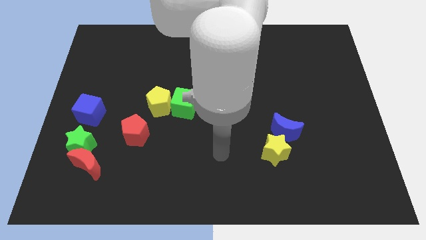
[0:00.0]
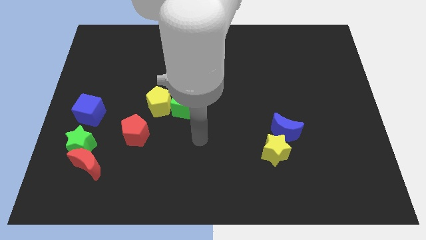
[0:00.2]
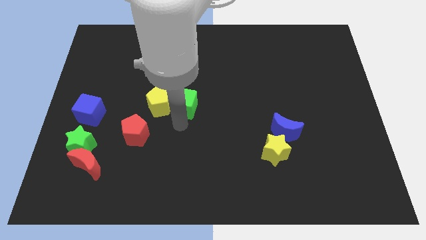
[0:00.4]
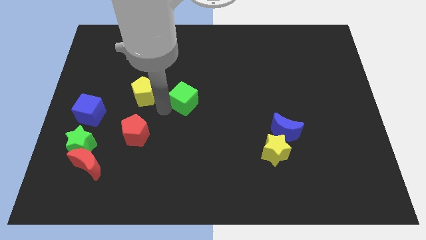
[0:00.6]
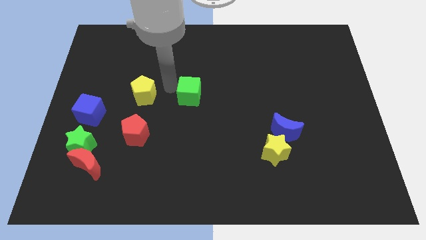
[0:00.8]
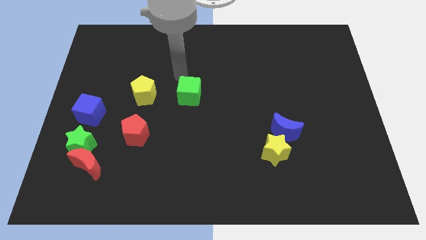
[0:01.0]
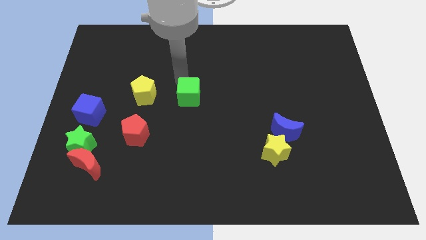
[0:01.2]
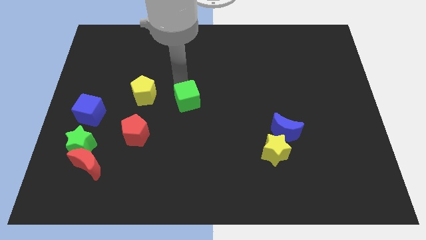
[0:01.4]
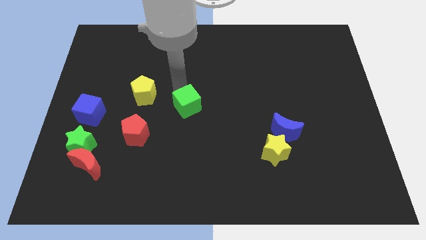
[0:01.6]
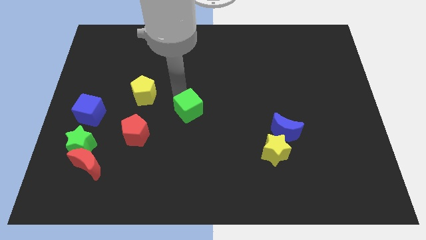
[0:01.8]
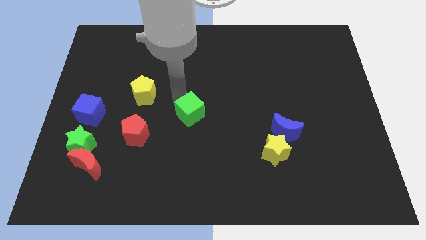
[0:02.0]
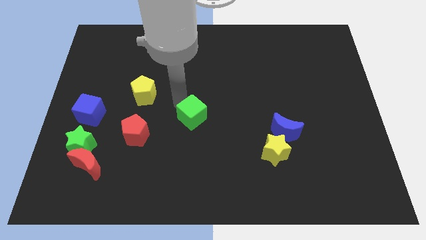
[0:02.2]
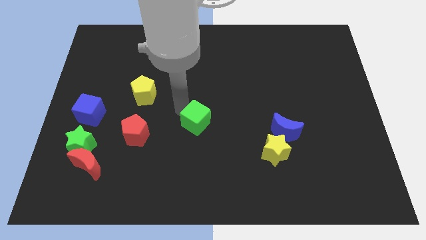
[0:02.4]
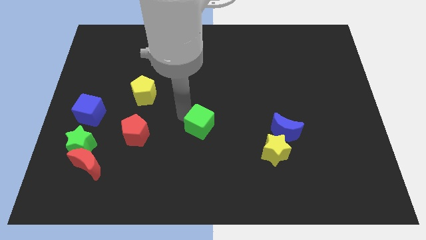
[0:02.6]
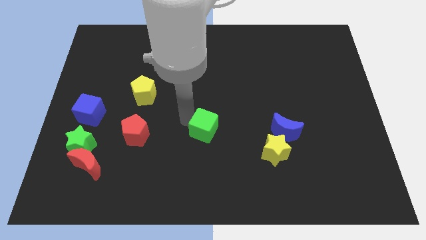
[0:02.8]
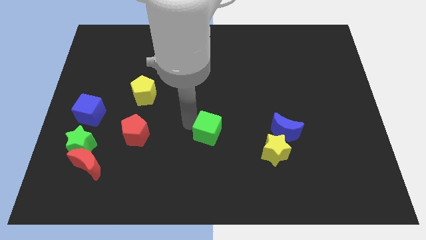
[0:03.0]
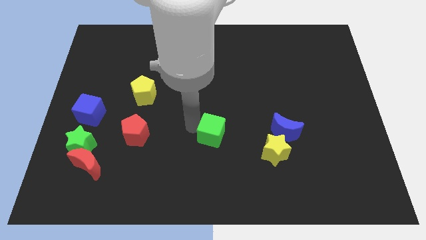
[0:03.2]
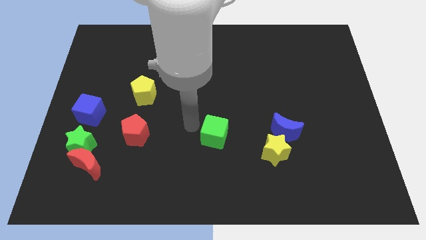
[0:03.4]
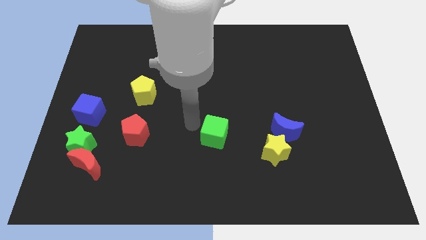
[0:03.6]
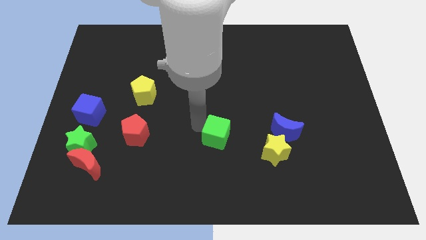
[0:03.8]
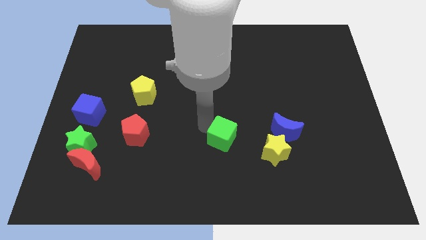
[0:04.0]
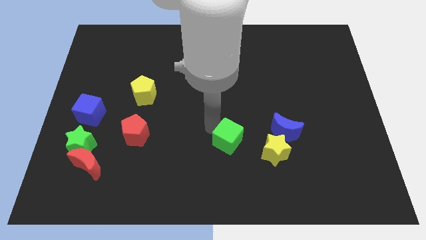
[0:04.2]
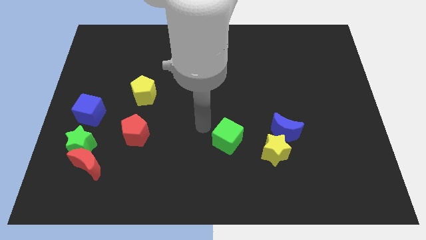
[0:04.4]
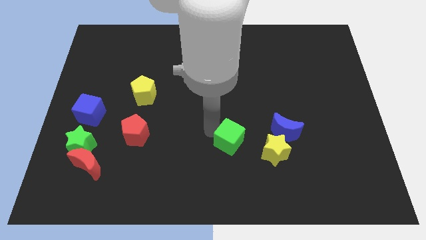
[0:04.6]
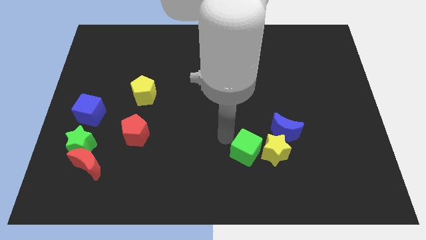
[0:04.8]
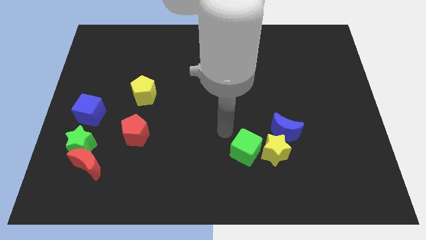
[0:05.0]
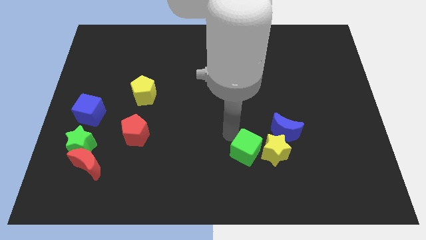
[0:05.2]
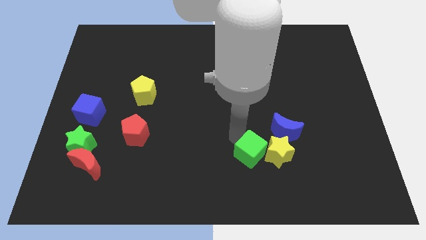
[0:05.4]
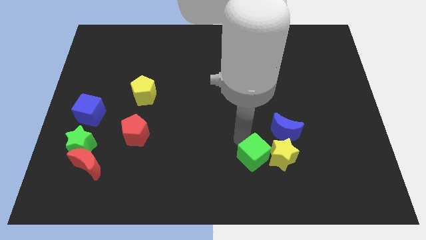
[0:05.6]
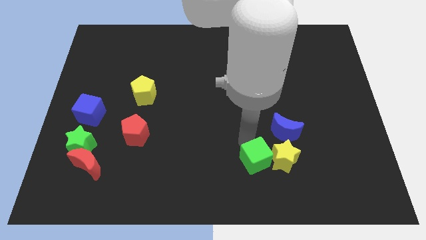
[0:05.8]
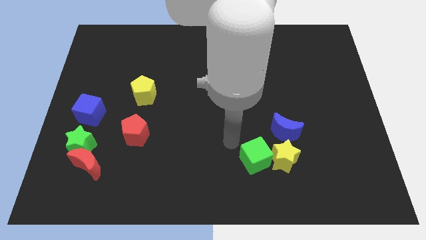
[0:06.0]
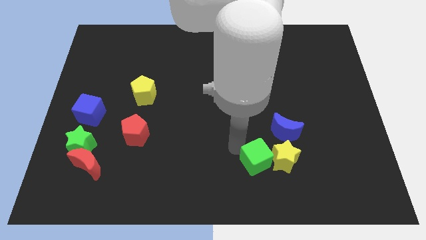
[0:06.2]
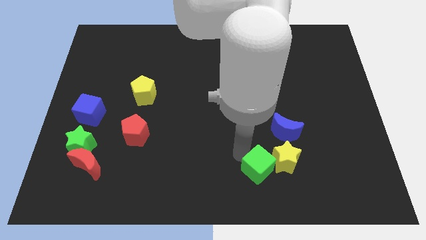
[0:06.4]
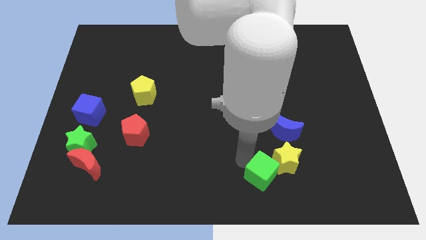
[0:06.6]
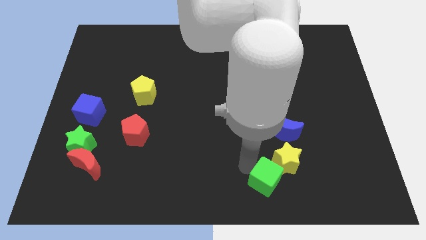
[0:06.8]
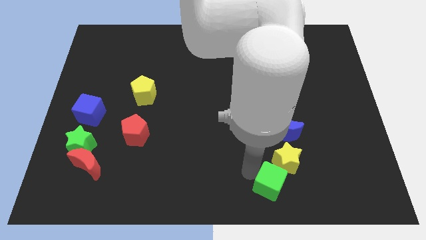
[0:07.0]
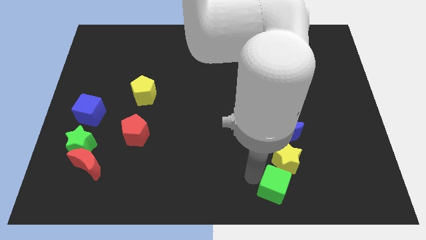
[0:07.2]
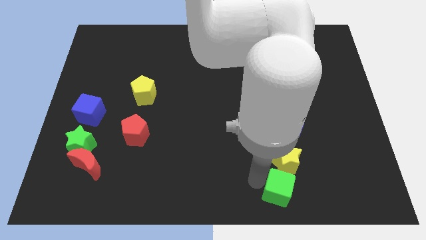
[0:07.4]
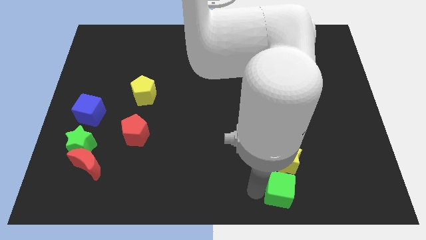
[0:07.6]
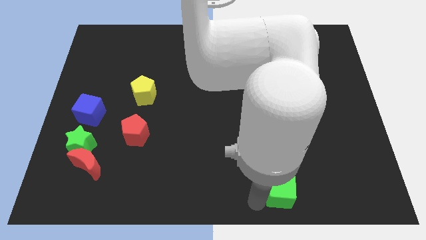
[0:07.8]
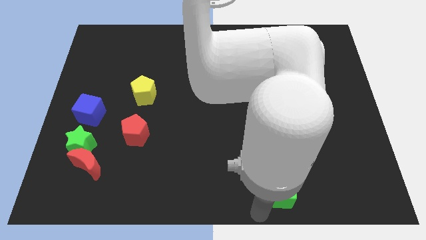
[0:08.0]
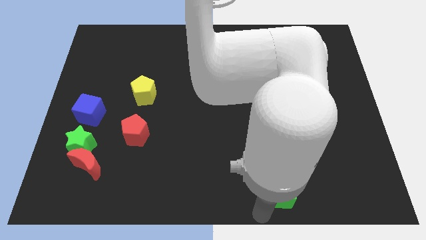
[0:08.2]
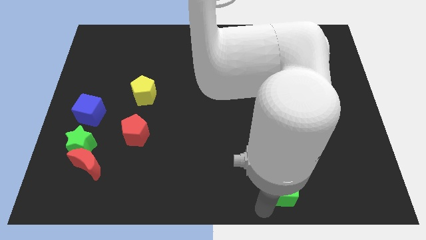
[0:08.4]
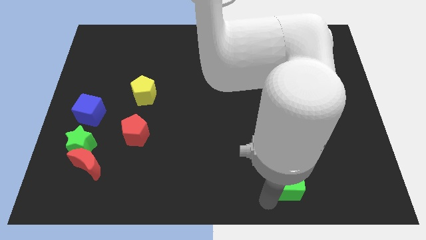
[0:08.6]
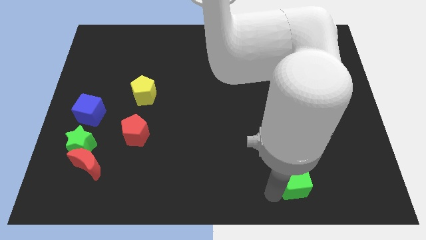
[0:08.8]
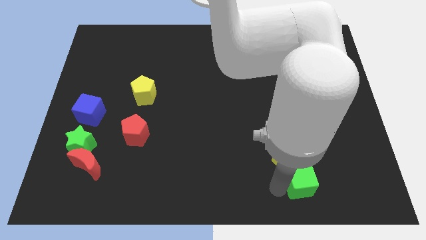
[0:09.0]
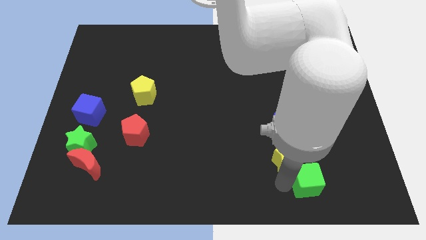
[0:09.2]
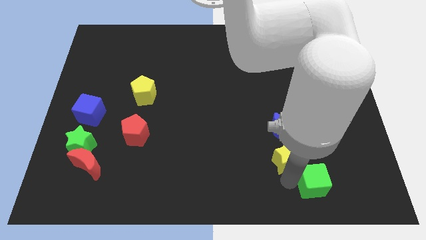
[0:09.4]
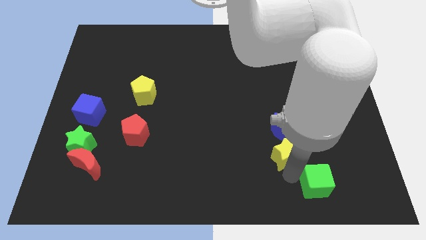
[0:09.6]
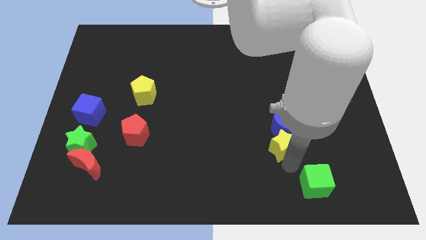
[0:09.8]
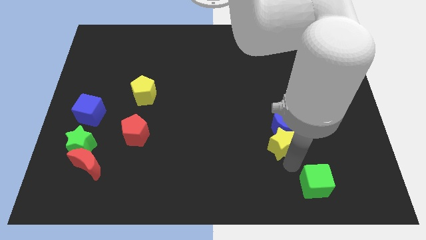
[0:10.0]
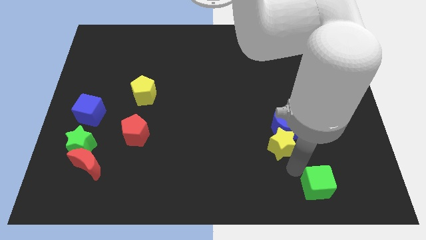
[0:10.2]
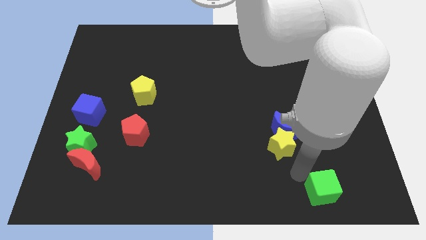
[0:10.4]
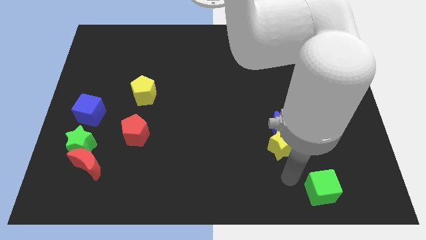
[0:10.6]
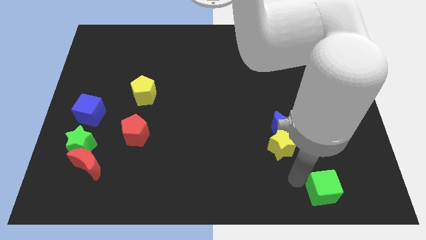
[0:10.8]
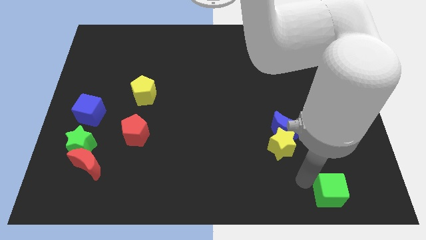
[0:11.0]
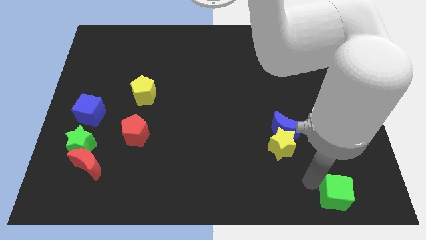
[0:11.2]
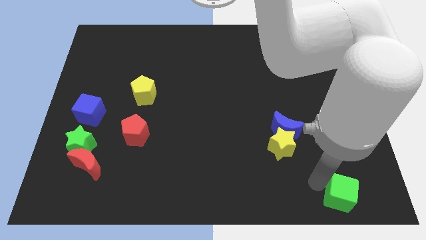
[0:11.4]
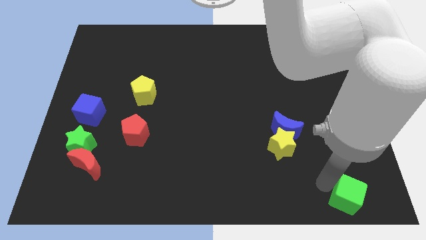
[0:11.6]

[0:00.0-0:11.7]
put the green cube to the lower right corner

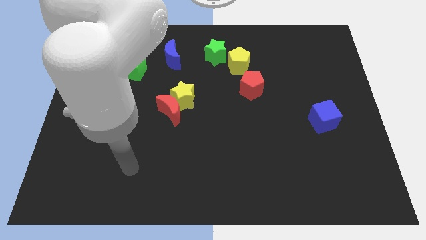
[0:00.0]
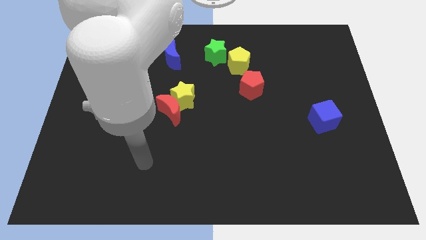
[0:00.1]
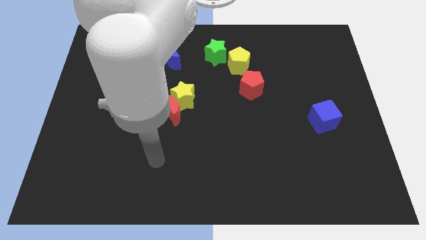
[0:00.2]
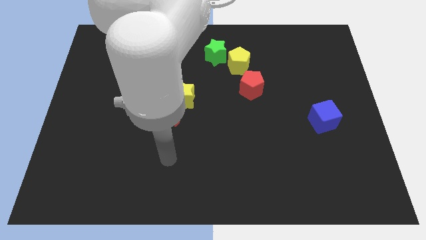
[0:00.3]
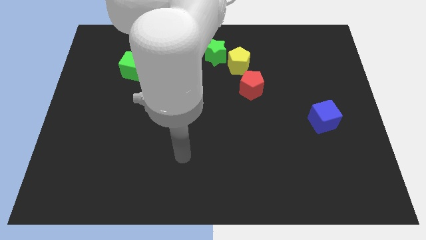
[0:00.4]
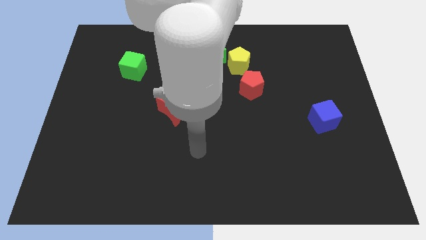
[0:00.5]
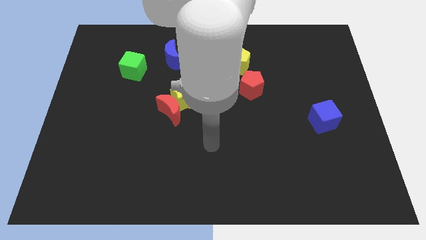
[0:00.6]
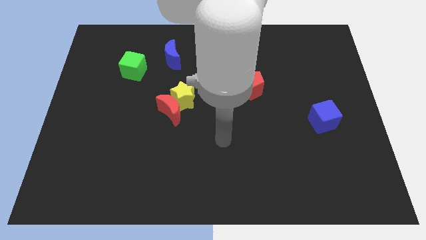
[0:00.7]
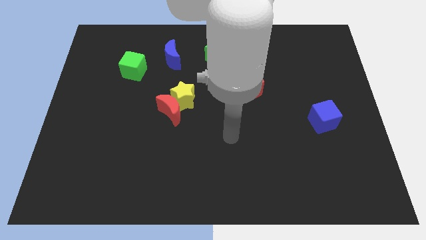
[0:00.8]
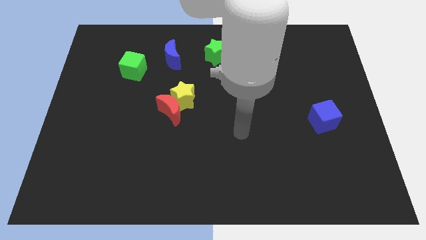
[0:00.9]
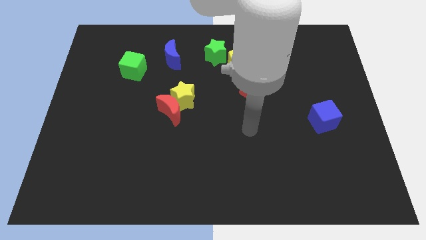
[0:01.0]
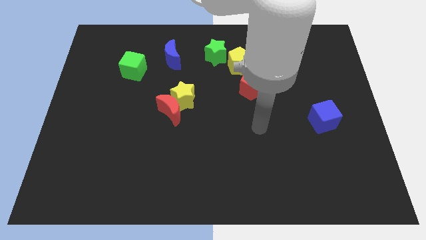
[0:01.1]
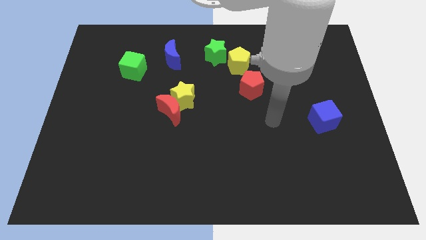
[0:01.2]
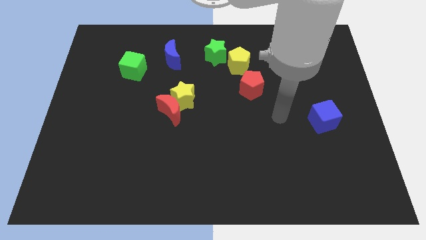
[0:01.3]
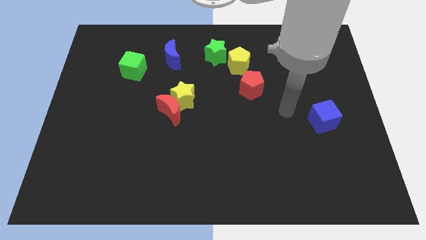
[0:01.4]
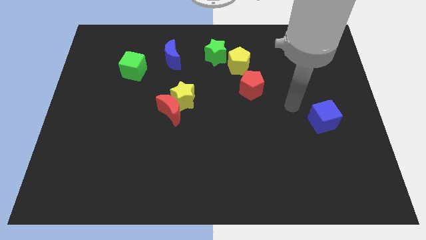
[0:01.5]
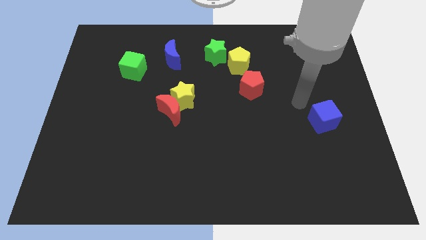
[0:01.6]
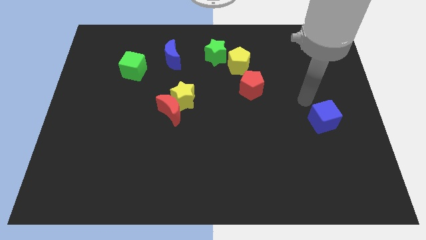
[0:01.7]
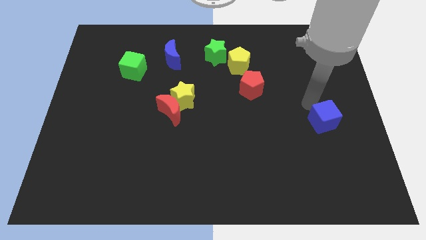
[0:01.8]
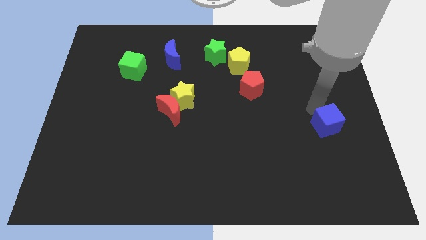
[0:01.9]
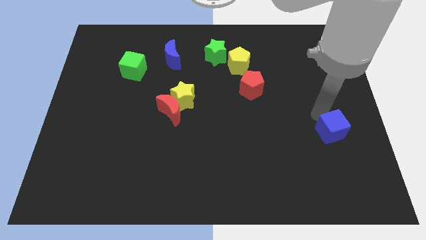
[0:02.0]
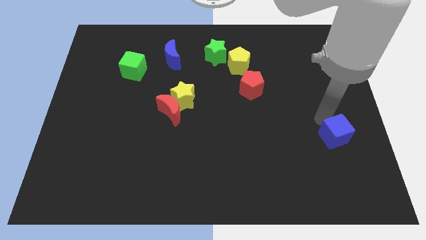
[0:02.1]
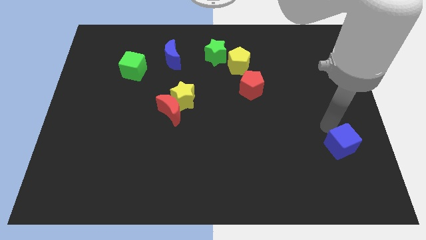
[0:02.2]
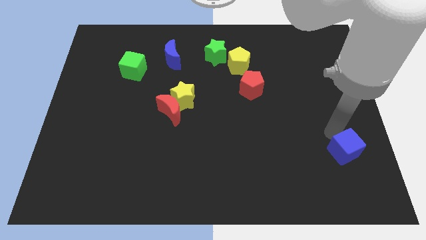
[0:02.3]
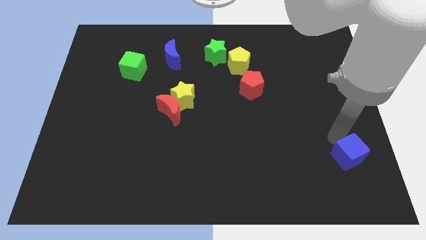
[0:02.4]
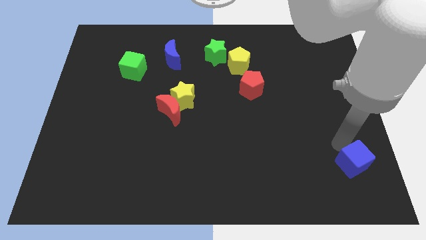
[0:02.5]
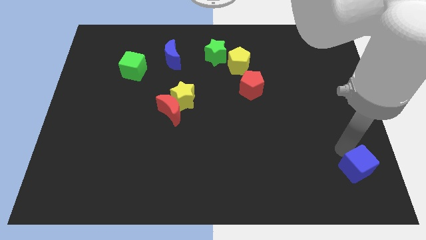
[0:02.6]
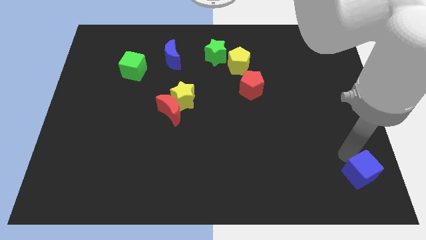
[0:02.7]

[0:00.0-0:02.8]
slide the blue cube to the bottom right of the board
